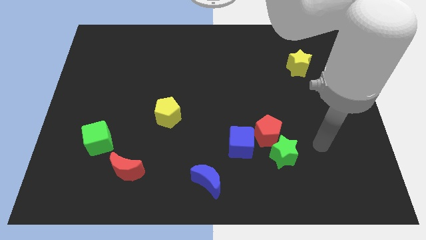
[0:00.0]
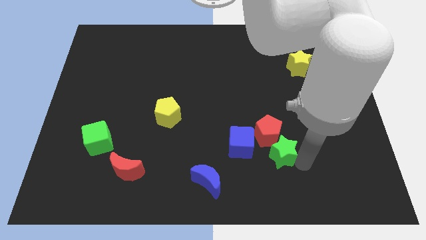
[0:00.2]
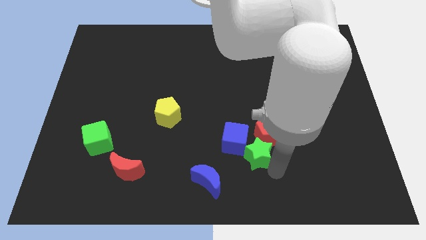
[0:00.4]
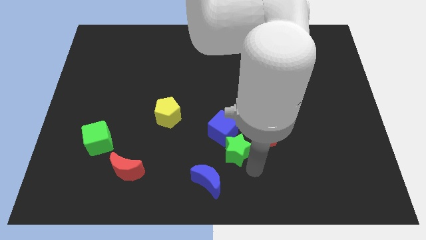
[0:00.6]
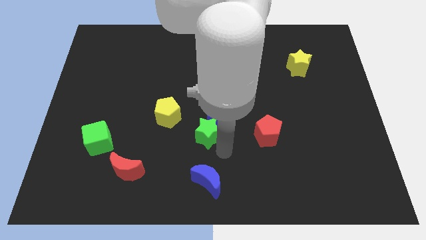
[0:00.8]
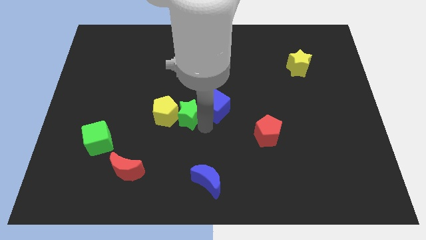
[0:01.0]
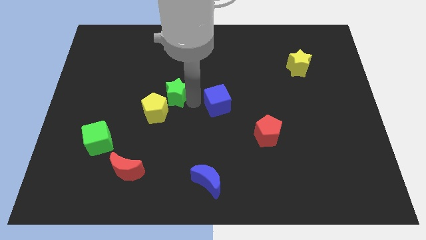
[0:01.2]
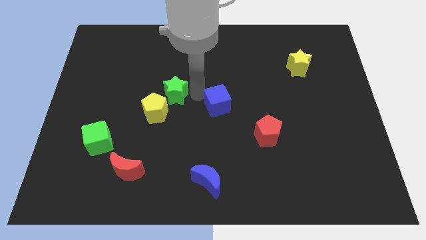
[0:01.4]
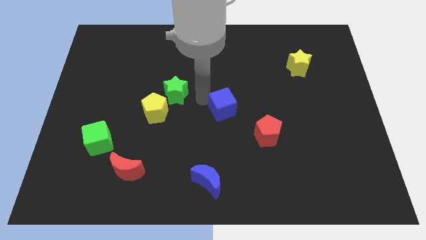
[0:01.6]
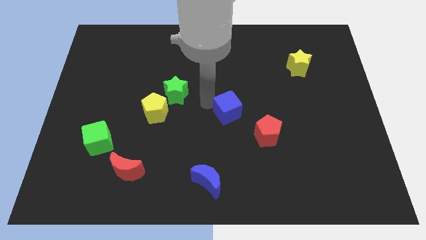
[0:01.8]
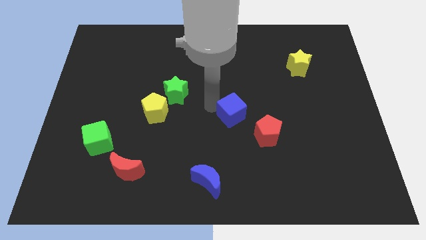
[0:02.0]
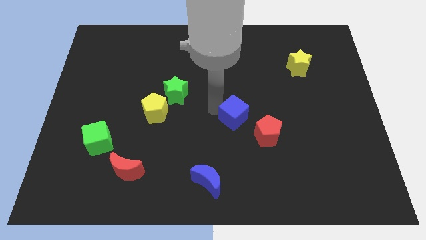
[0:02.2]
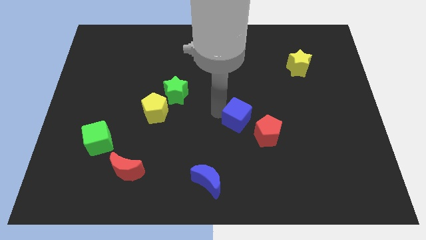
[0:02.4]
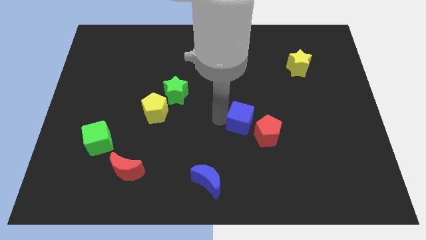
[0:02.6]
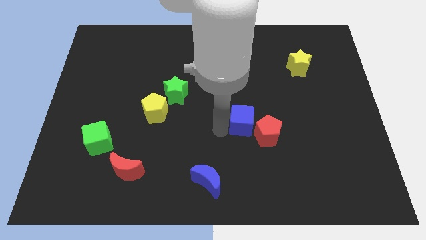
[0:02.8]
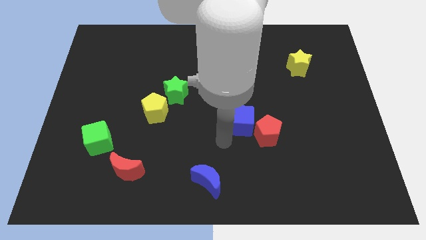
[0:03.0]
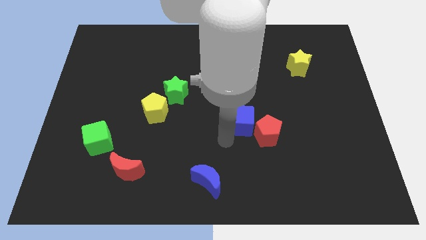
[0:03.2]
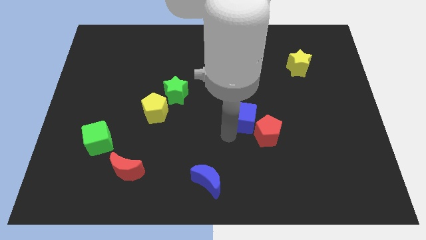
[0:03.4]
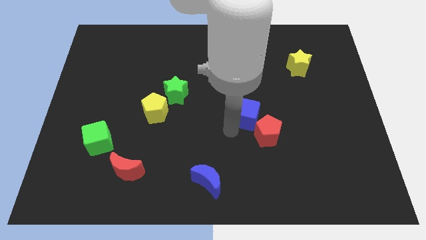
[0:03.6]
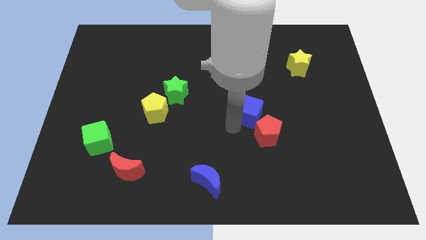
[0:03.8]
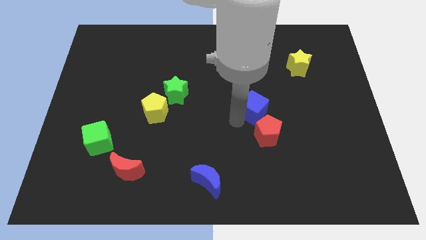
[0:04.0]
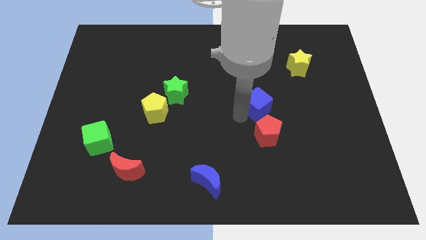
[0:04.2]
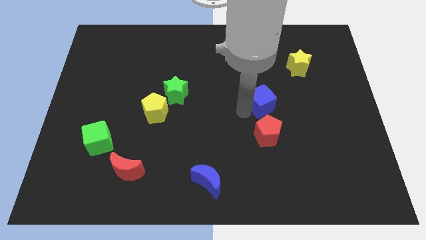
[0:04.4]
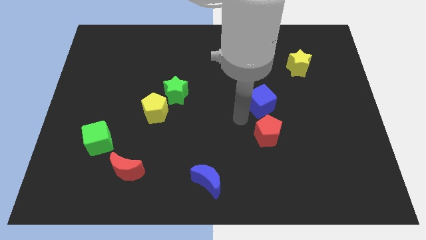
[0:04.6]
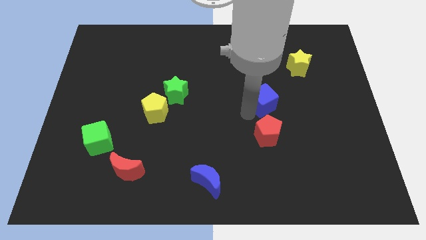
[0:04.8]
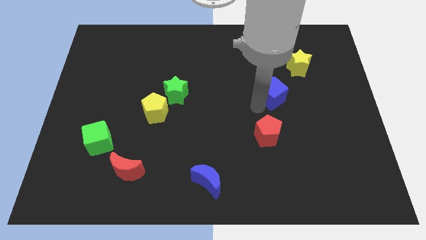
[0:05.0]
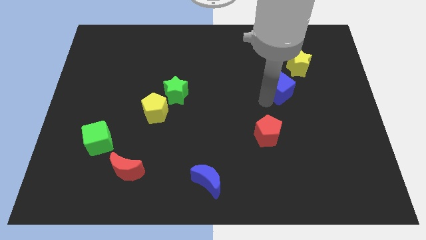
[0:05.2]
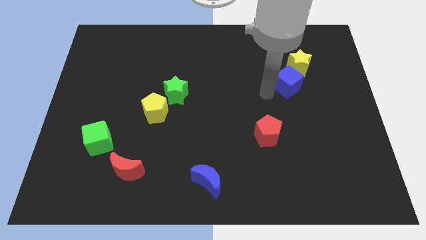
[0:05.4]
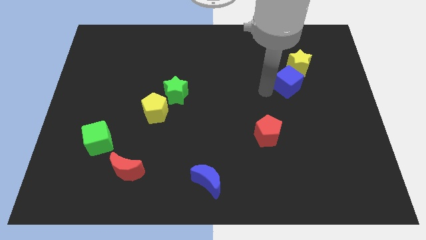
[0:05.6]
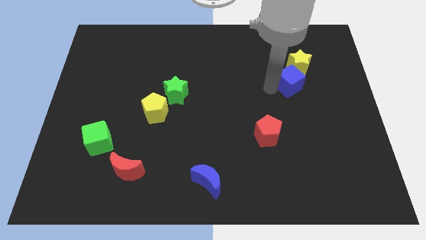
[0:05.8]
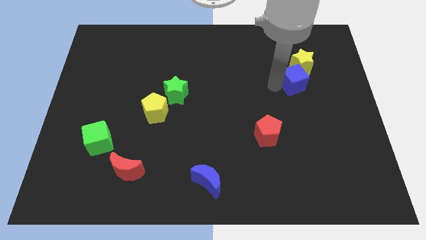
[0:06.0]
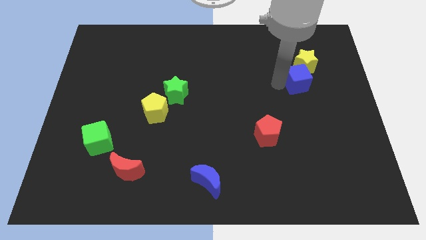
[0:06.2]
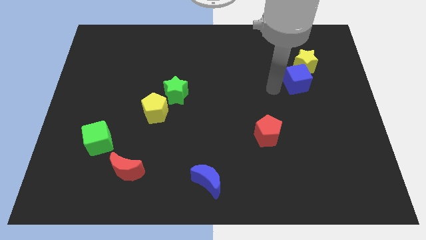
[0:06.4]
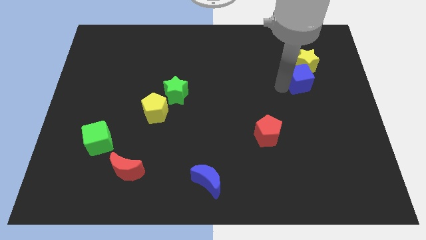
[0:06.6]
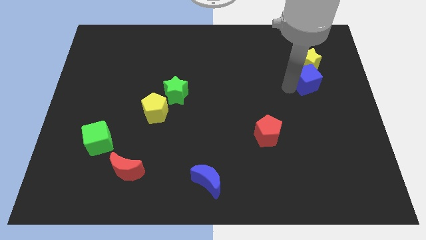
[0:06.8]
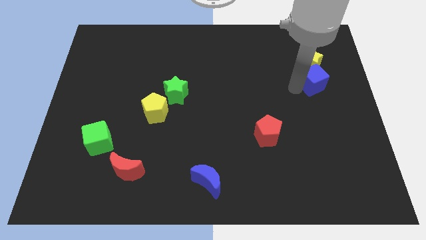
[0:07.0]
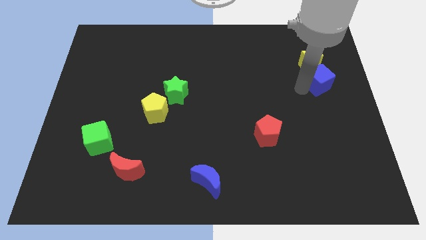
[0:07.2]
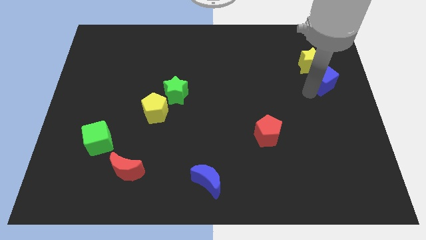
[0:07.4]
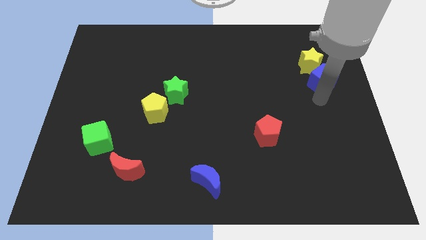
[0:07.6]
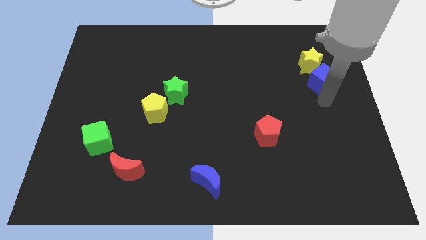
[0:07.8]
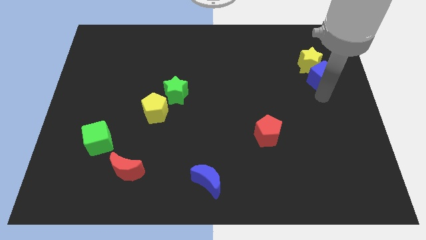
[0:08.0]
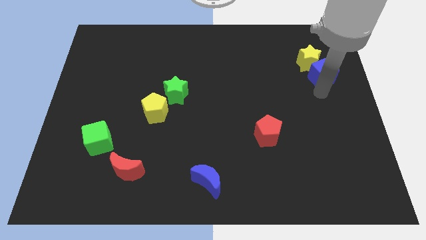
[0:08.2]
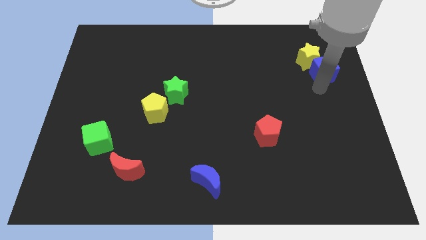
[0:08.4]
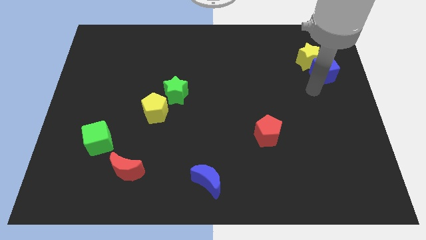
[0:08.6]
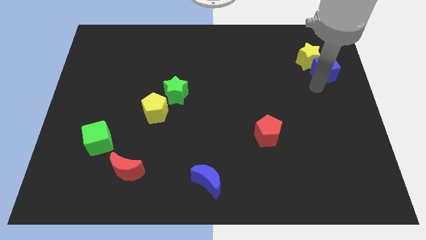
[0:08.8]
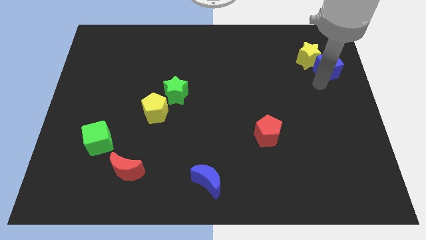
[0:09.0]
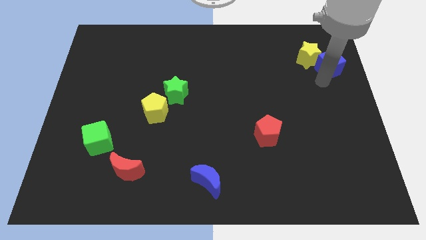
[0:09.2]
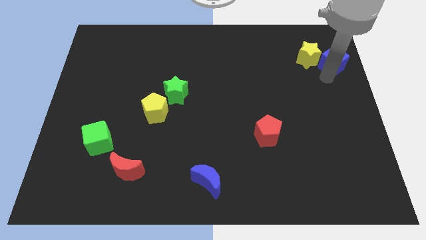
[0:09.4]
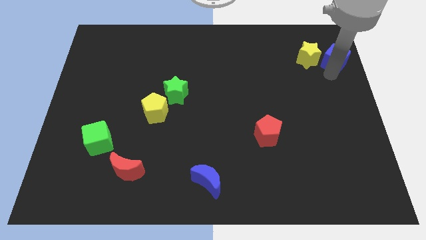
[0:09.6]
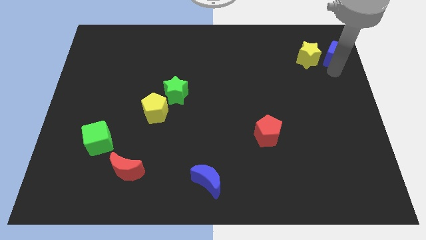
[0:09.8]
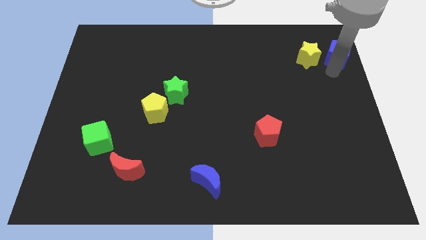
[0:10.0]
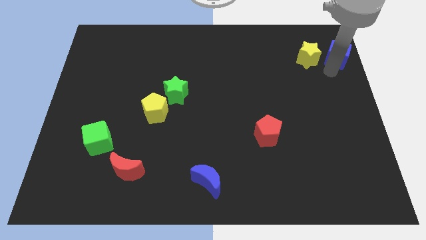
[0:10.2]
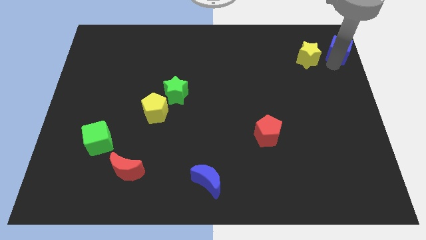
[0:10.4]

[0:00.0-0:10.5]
push the blue cube to the upper right corner

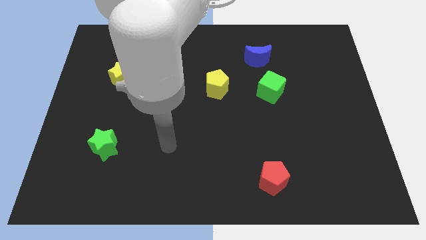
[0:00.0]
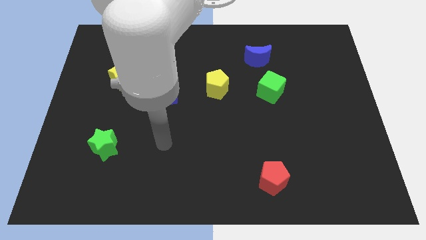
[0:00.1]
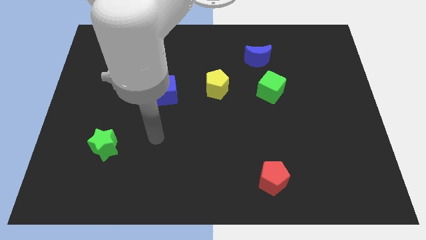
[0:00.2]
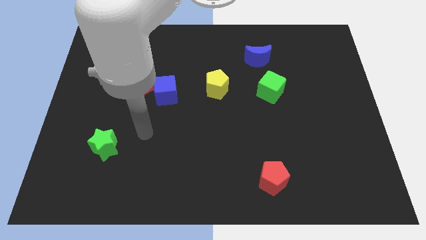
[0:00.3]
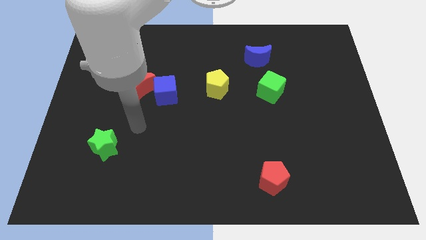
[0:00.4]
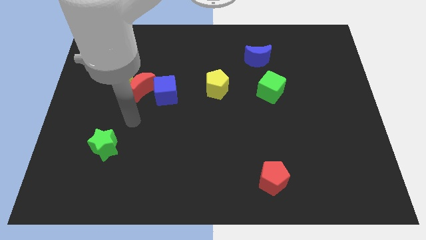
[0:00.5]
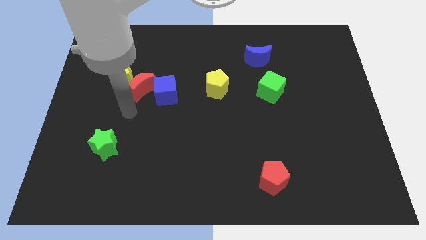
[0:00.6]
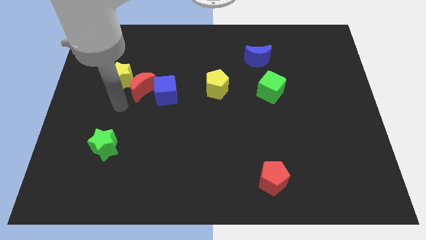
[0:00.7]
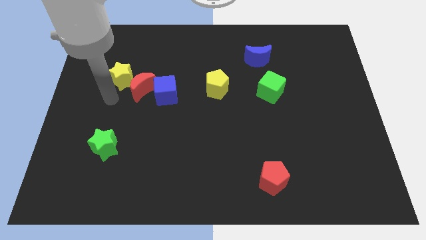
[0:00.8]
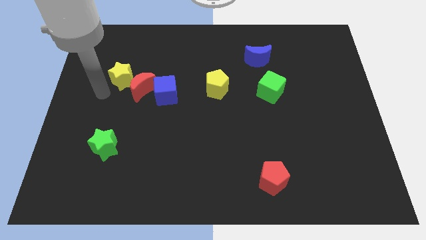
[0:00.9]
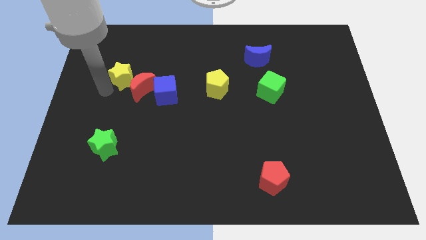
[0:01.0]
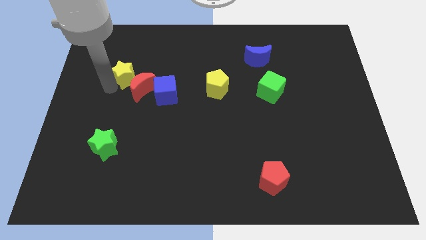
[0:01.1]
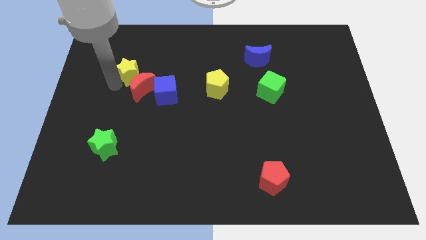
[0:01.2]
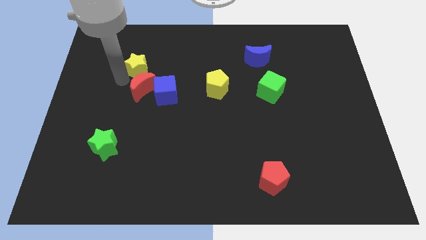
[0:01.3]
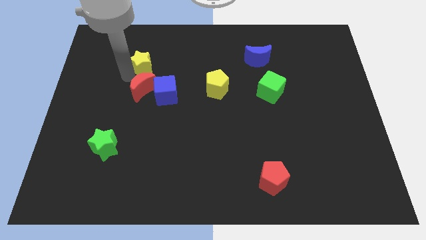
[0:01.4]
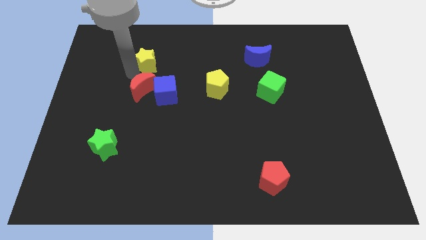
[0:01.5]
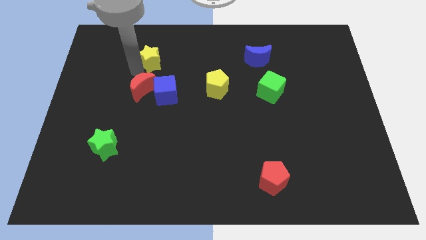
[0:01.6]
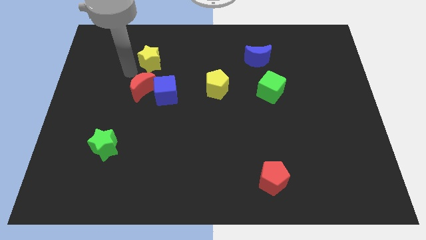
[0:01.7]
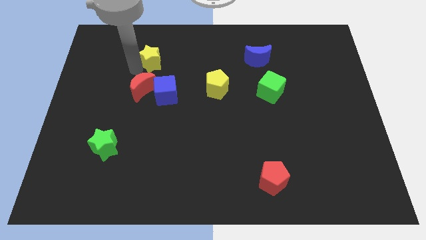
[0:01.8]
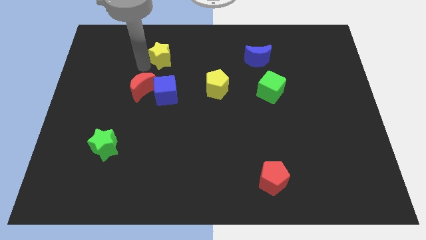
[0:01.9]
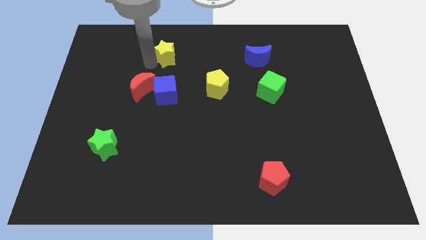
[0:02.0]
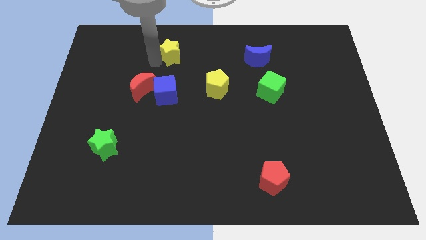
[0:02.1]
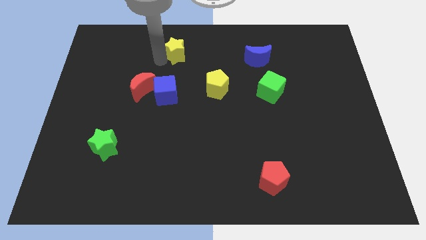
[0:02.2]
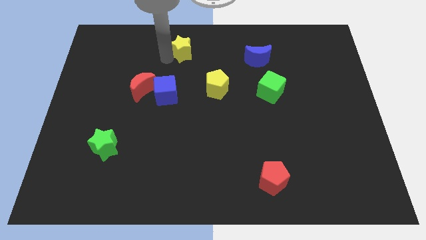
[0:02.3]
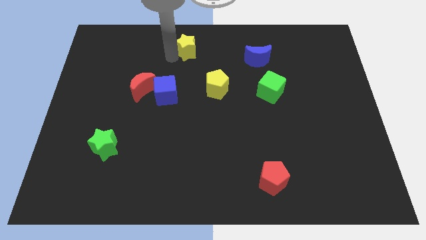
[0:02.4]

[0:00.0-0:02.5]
slide the yellow star to the towards your base
